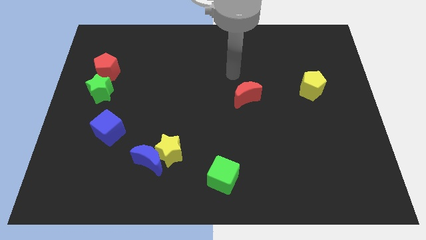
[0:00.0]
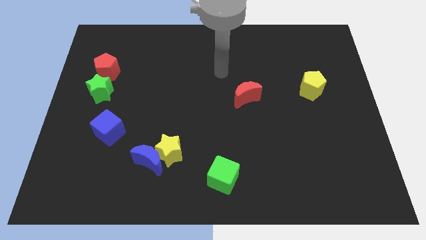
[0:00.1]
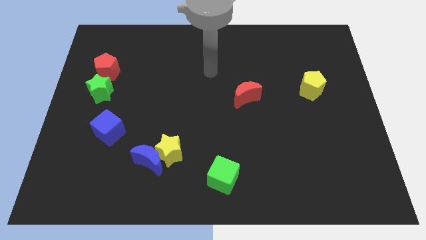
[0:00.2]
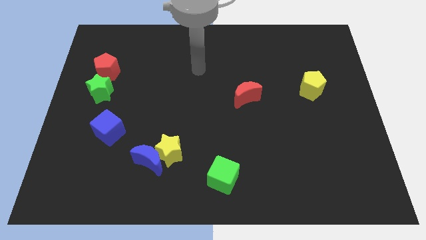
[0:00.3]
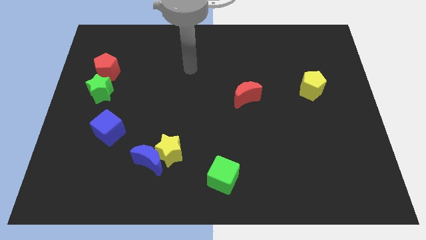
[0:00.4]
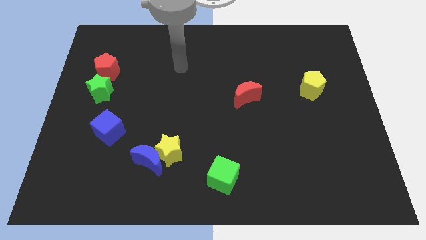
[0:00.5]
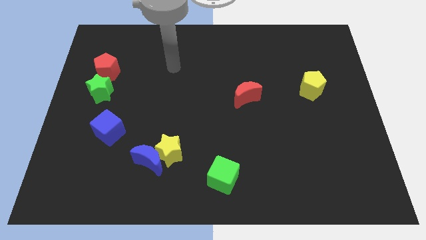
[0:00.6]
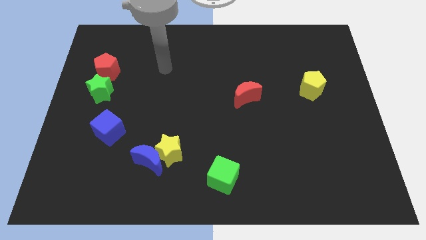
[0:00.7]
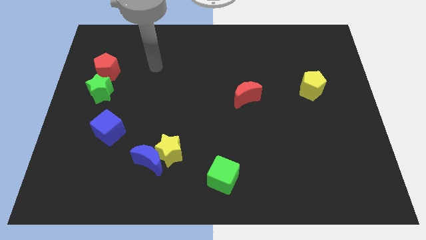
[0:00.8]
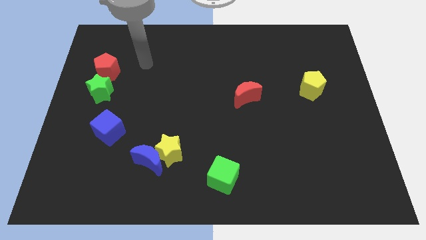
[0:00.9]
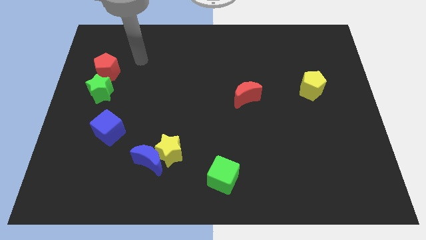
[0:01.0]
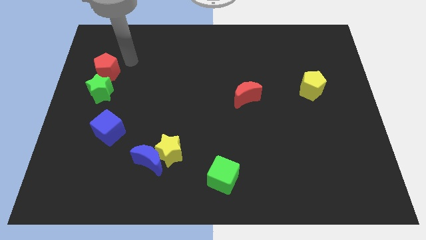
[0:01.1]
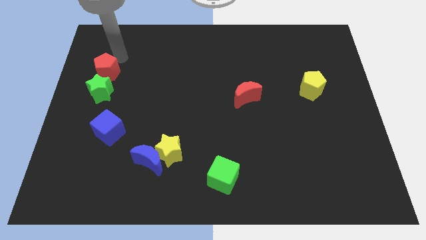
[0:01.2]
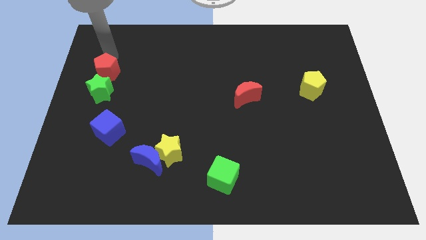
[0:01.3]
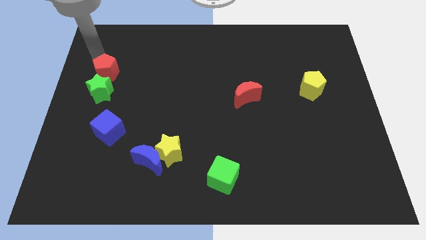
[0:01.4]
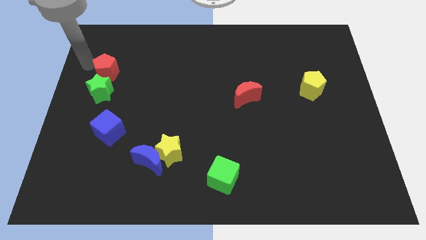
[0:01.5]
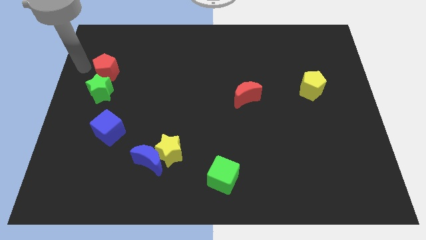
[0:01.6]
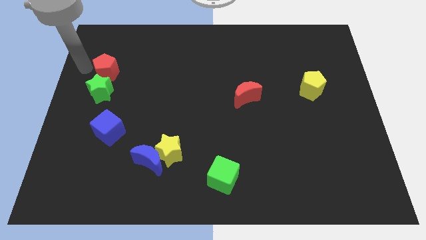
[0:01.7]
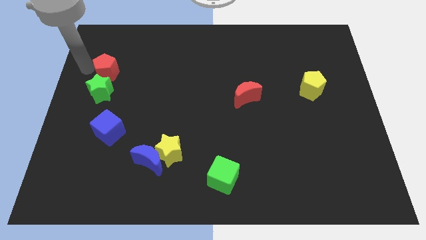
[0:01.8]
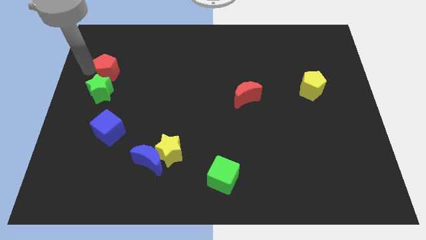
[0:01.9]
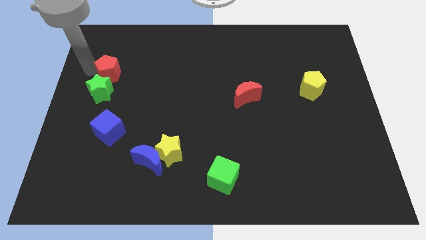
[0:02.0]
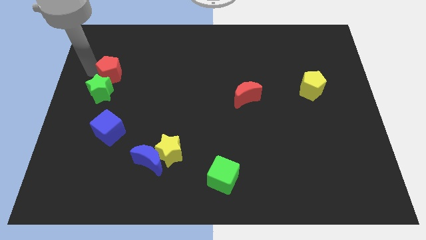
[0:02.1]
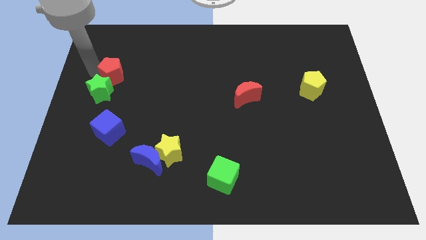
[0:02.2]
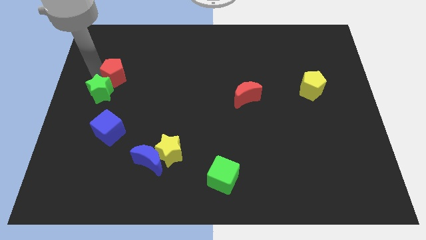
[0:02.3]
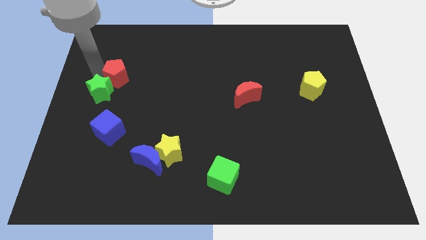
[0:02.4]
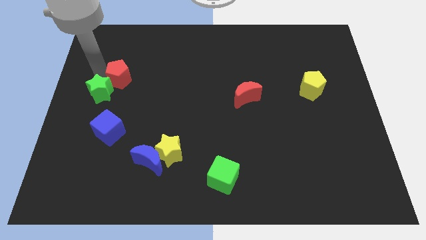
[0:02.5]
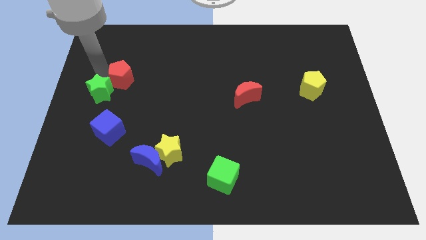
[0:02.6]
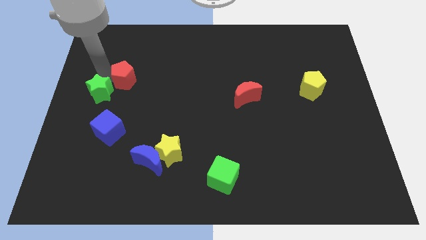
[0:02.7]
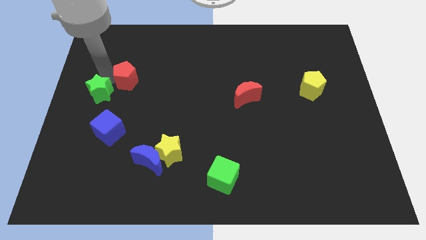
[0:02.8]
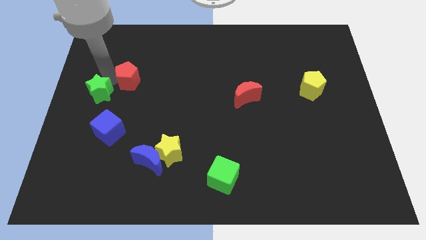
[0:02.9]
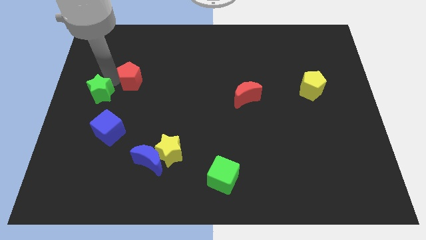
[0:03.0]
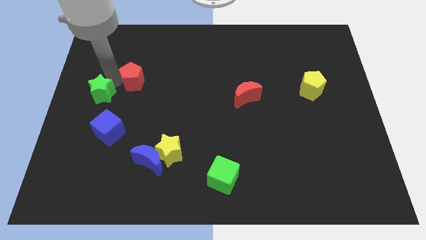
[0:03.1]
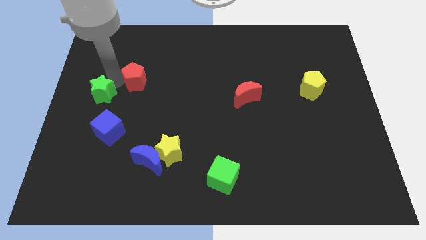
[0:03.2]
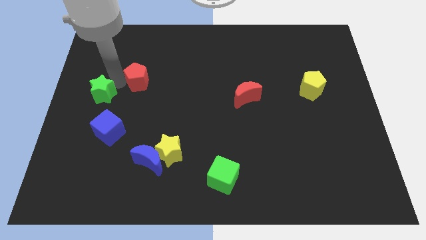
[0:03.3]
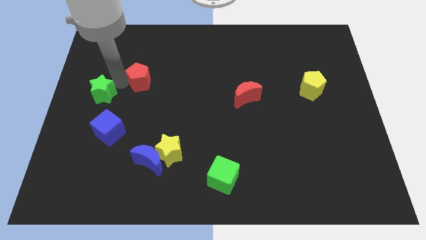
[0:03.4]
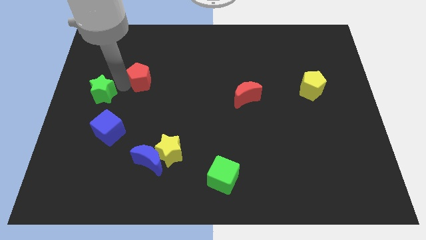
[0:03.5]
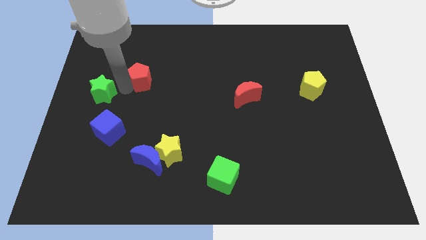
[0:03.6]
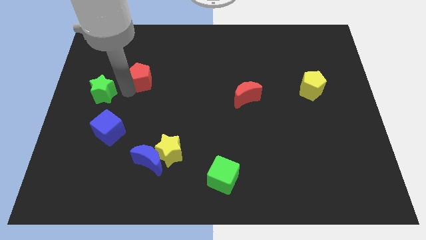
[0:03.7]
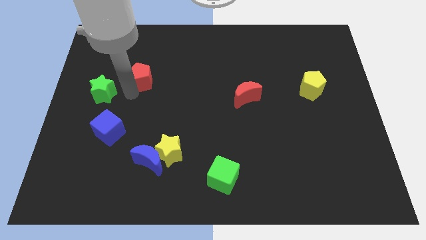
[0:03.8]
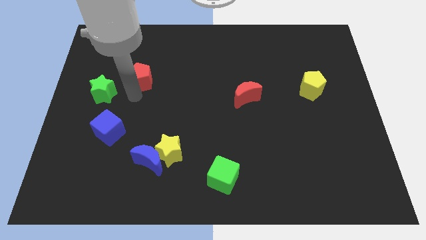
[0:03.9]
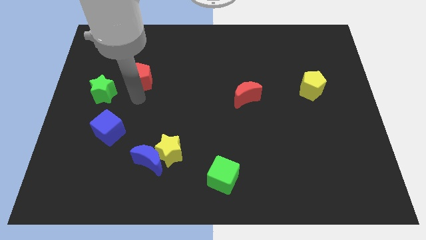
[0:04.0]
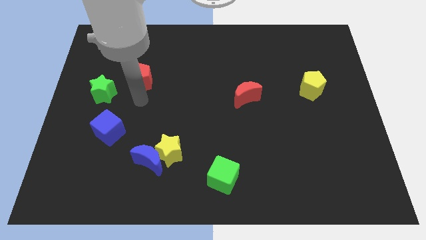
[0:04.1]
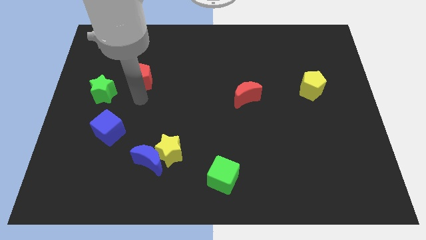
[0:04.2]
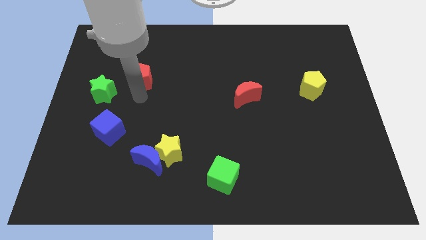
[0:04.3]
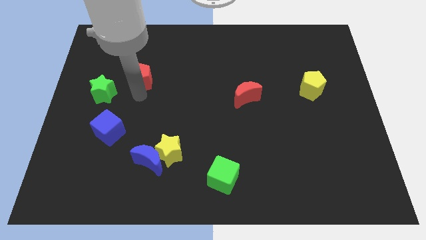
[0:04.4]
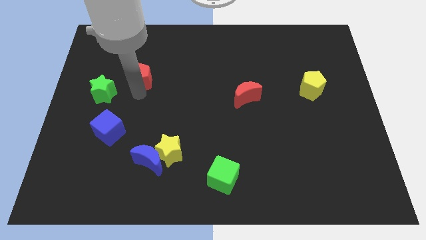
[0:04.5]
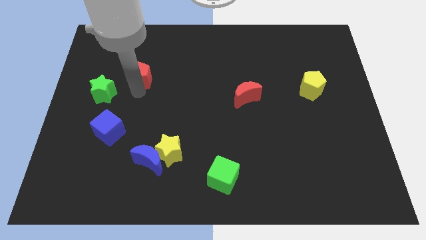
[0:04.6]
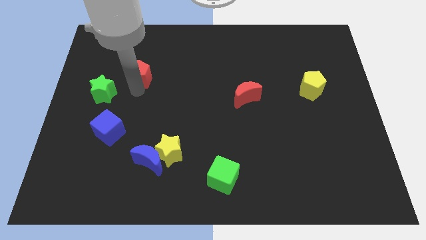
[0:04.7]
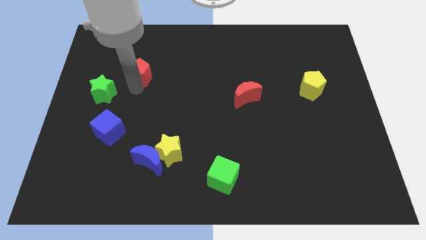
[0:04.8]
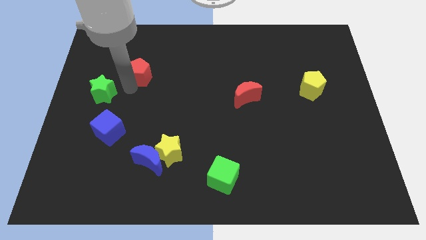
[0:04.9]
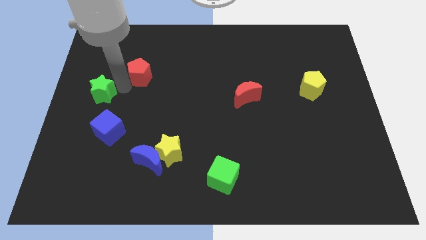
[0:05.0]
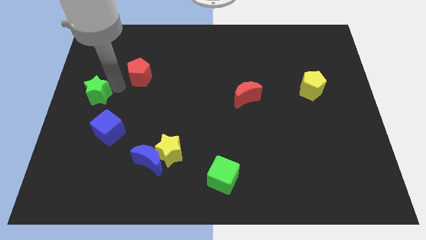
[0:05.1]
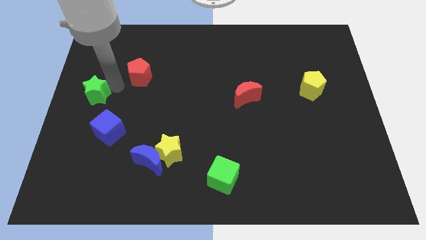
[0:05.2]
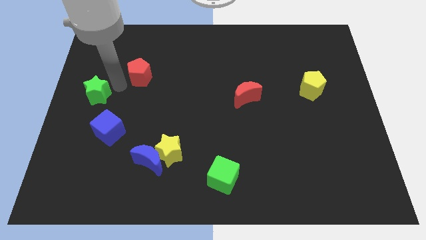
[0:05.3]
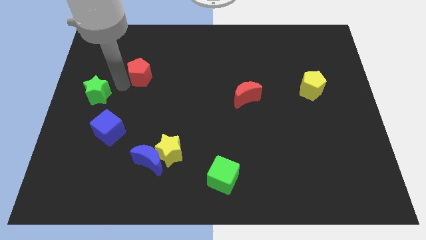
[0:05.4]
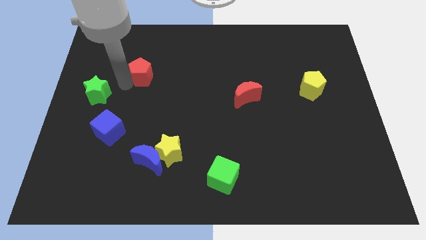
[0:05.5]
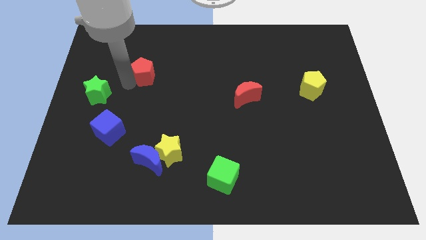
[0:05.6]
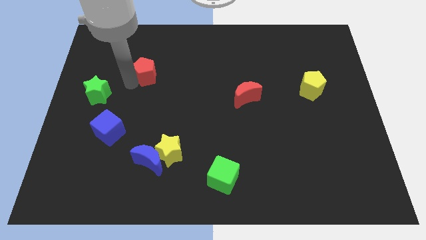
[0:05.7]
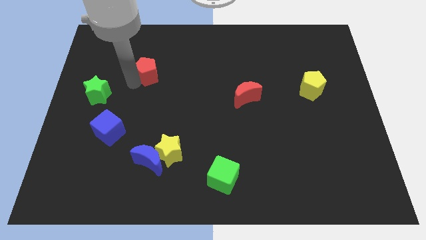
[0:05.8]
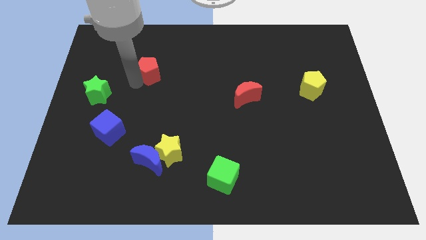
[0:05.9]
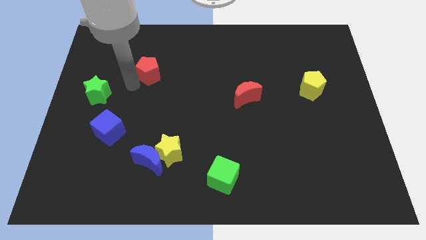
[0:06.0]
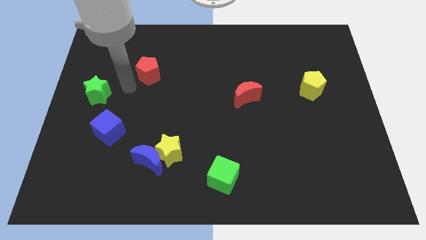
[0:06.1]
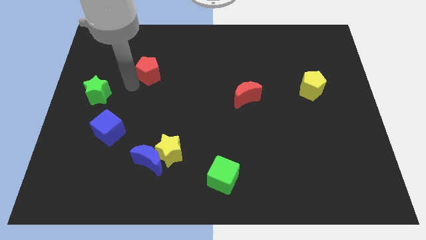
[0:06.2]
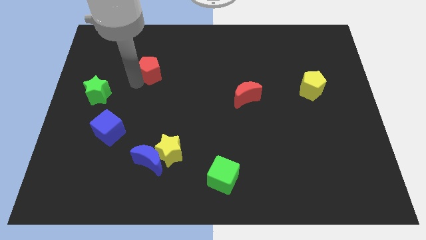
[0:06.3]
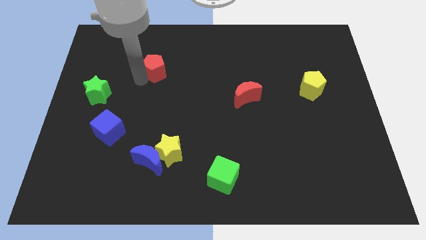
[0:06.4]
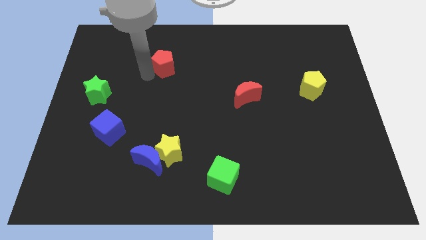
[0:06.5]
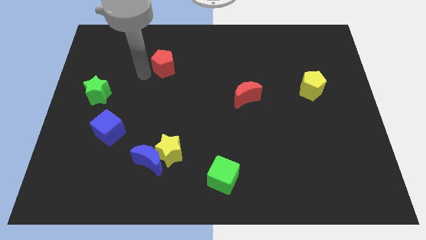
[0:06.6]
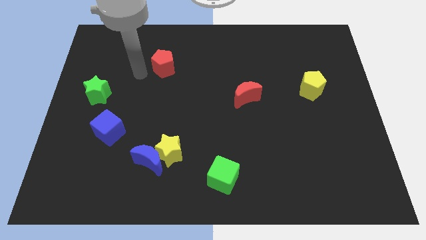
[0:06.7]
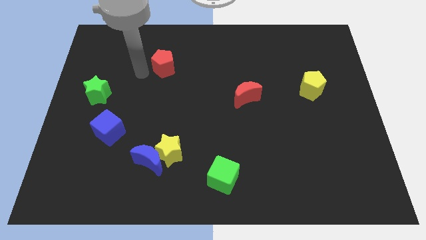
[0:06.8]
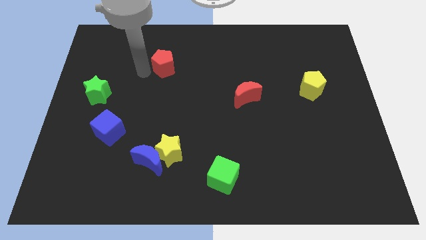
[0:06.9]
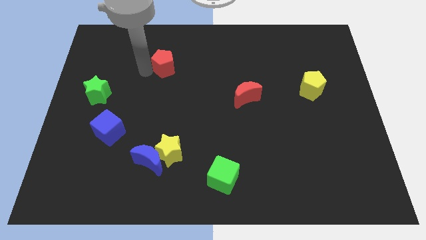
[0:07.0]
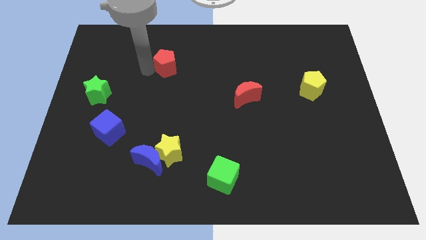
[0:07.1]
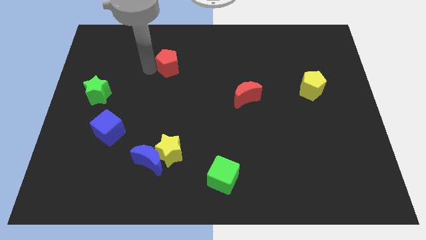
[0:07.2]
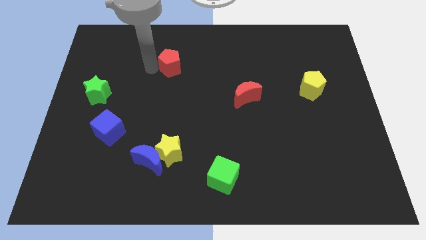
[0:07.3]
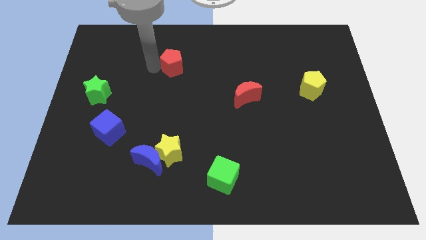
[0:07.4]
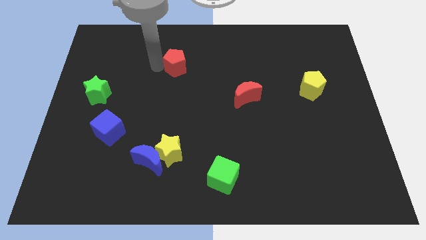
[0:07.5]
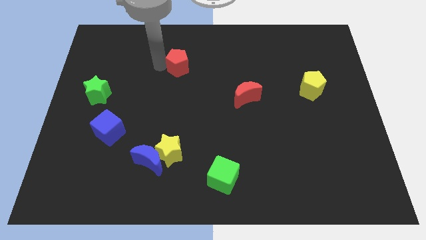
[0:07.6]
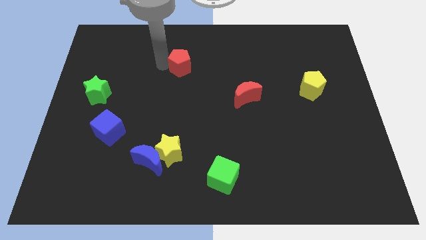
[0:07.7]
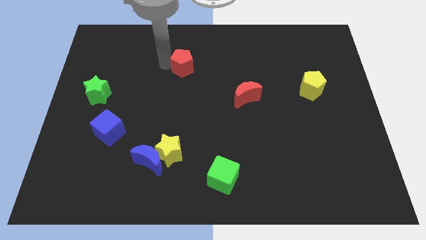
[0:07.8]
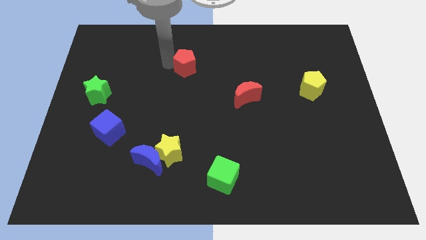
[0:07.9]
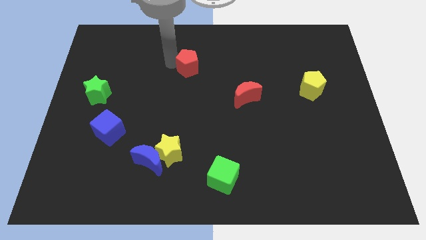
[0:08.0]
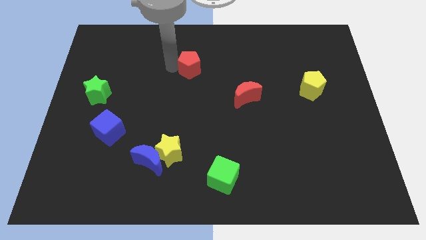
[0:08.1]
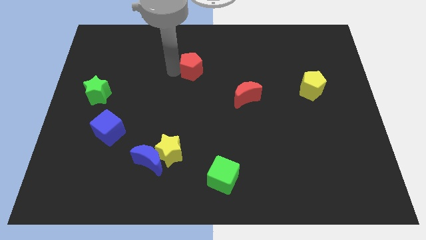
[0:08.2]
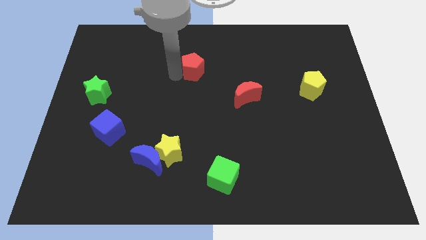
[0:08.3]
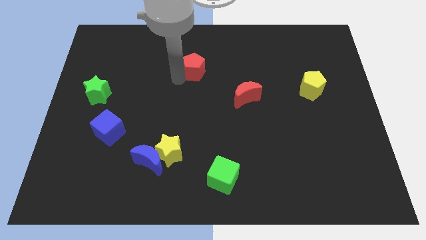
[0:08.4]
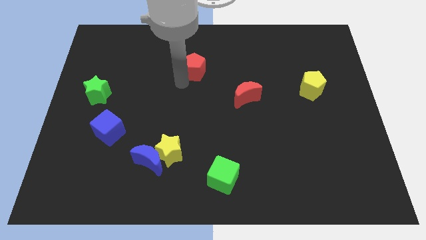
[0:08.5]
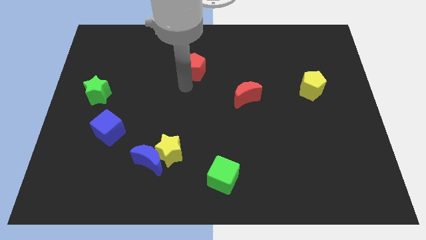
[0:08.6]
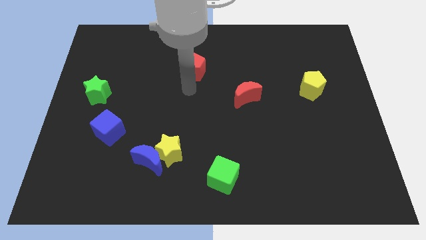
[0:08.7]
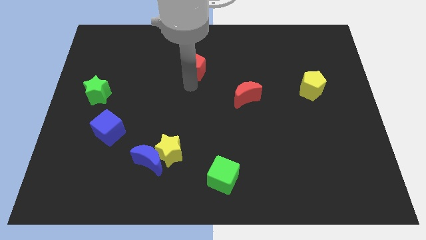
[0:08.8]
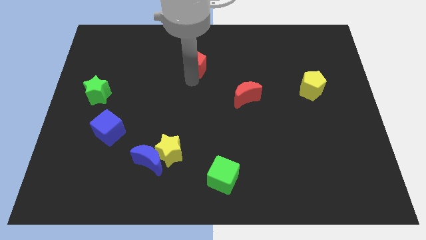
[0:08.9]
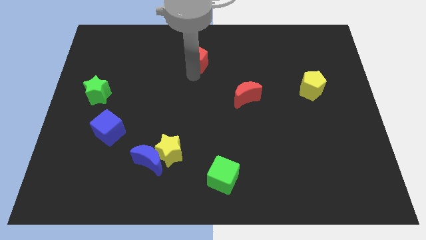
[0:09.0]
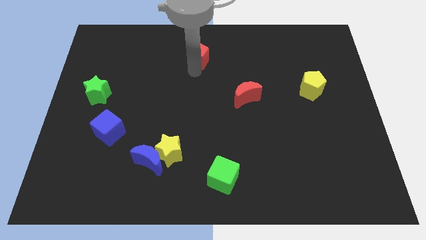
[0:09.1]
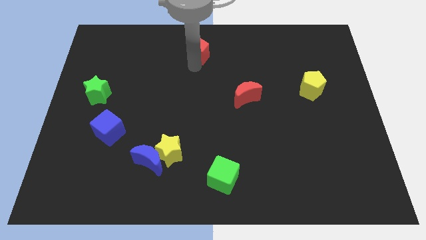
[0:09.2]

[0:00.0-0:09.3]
push the red pentagon to the towards your base
